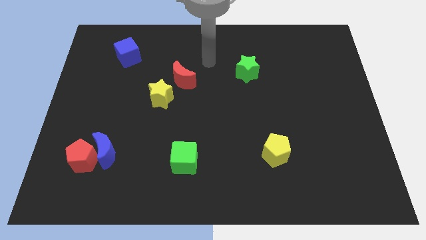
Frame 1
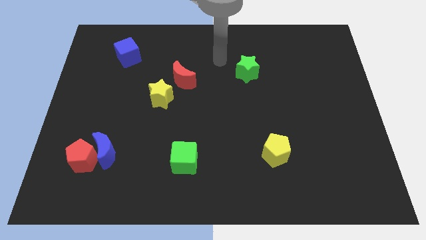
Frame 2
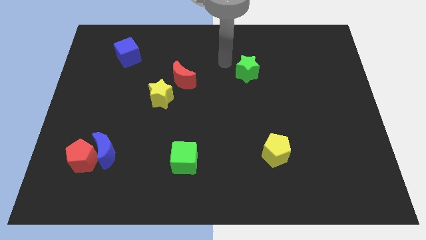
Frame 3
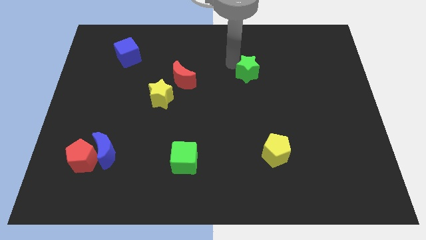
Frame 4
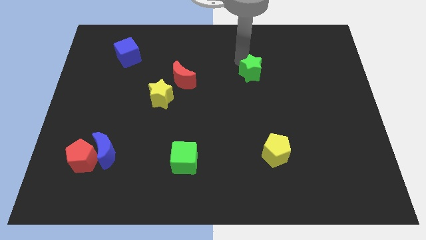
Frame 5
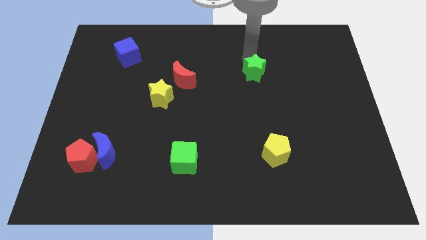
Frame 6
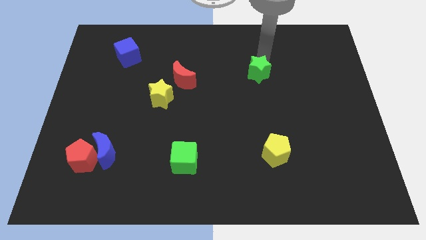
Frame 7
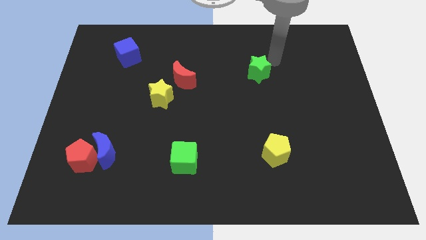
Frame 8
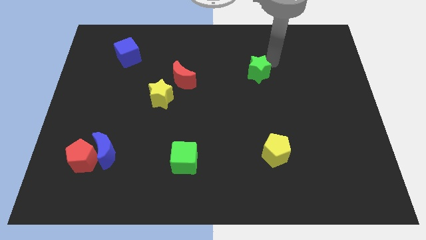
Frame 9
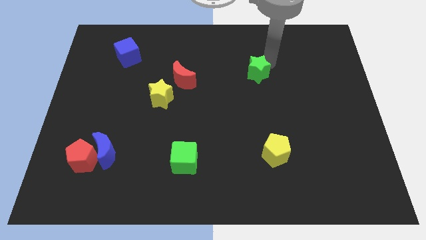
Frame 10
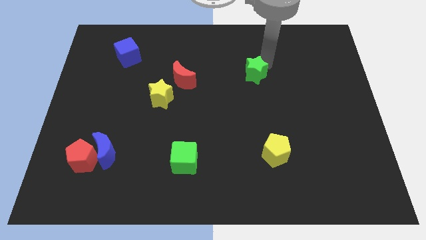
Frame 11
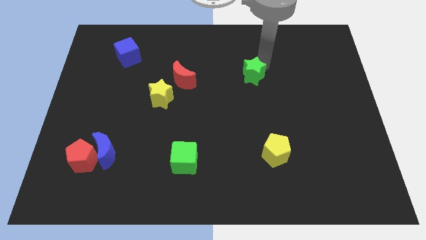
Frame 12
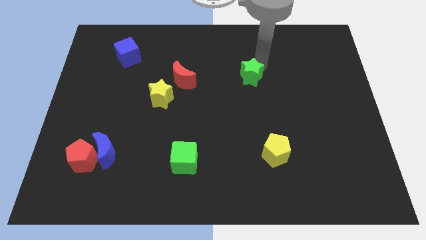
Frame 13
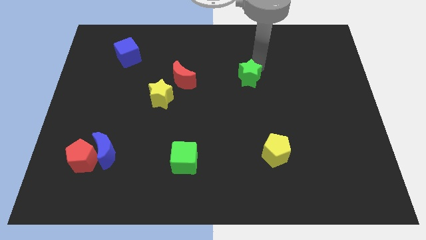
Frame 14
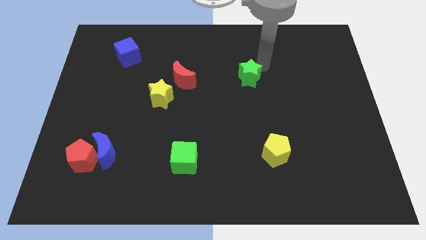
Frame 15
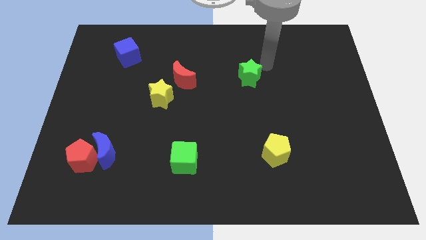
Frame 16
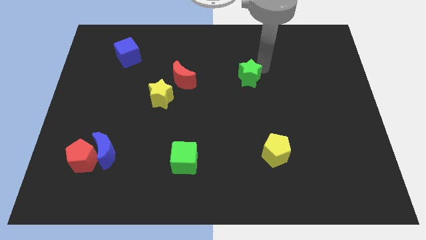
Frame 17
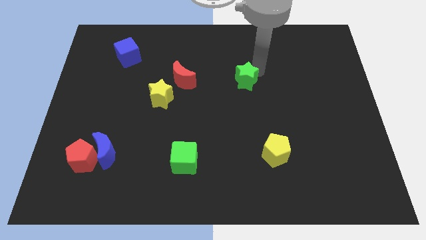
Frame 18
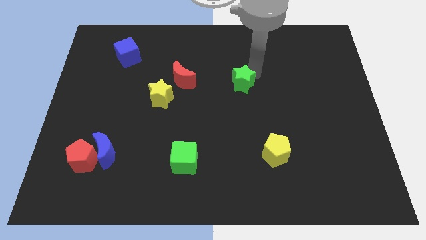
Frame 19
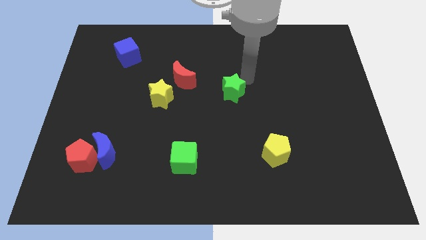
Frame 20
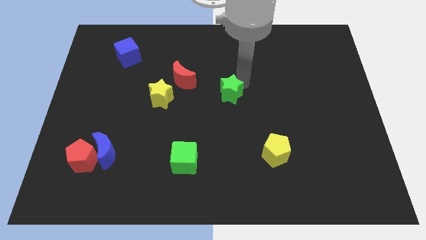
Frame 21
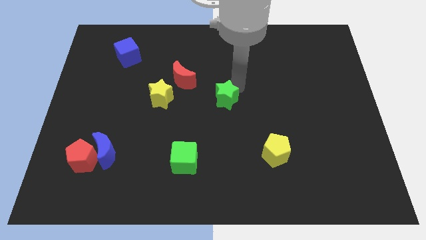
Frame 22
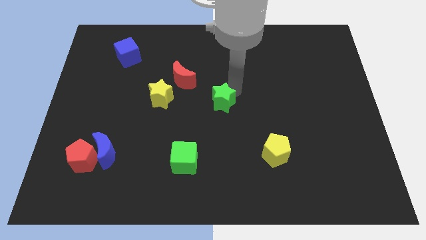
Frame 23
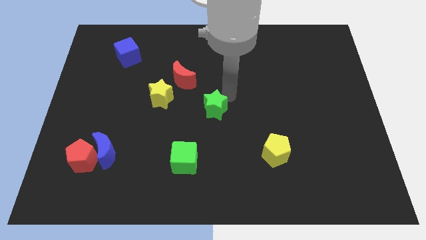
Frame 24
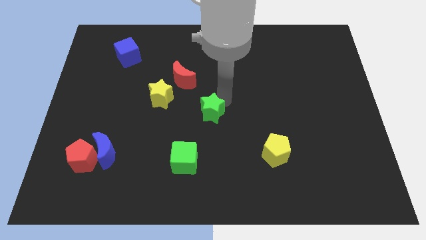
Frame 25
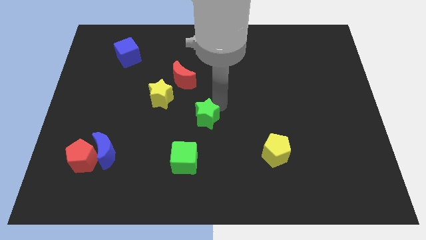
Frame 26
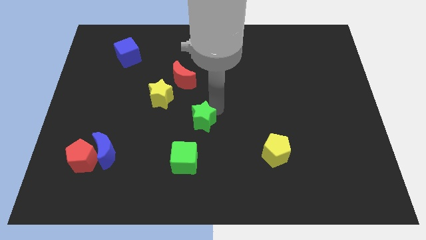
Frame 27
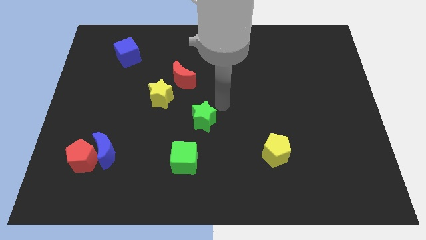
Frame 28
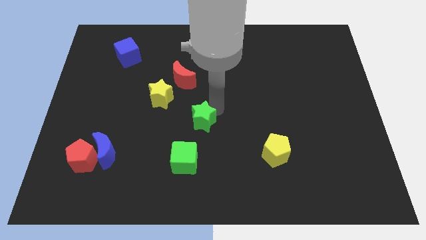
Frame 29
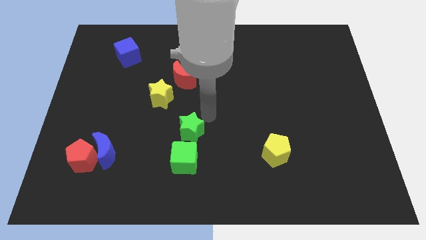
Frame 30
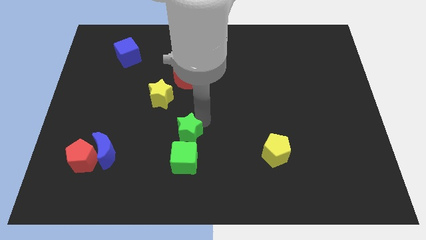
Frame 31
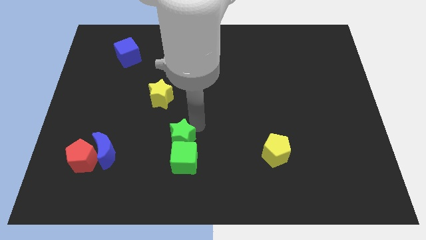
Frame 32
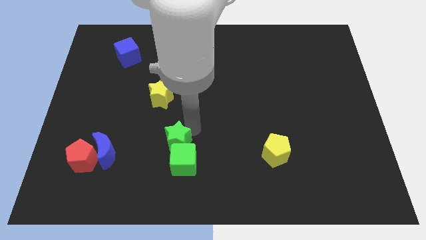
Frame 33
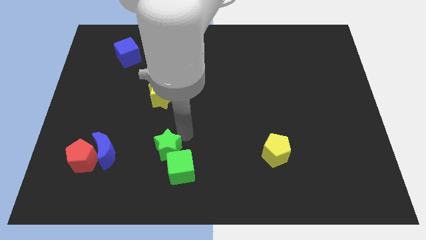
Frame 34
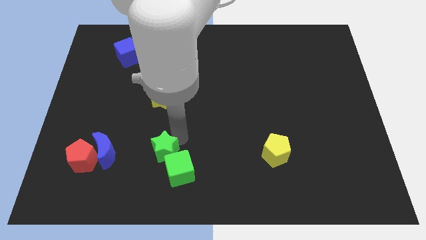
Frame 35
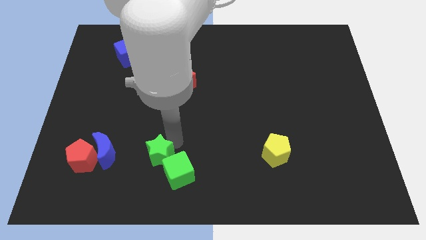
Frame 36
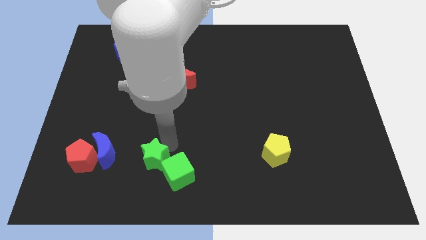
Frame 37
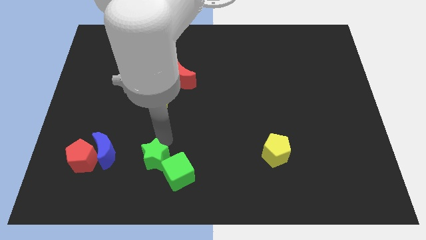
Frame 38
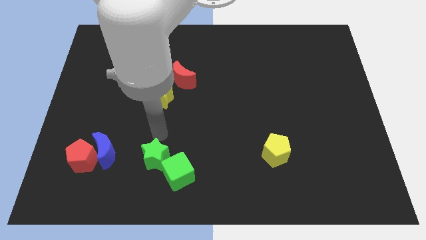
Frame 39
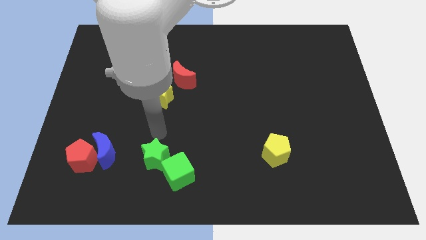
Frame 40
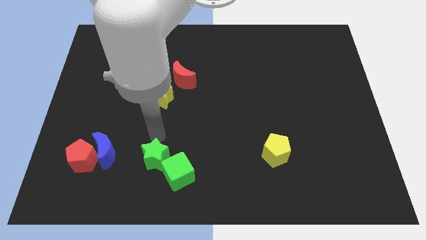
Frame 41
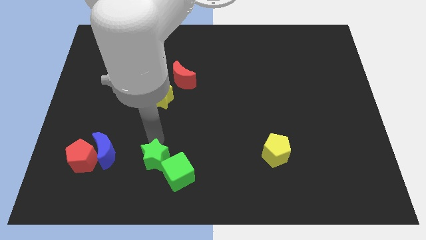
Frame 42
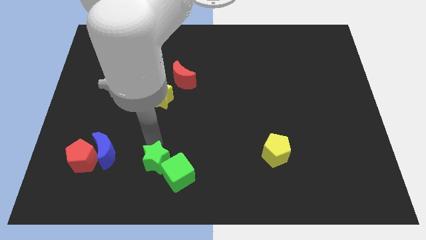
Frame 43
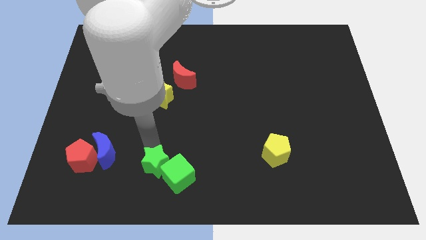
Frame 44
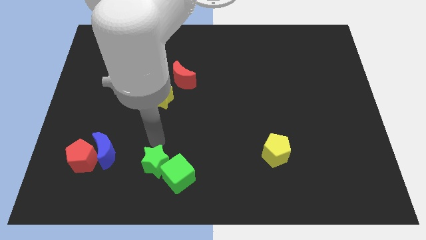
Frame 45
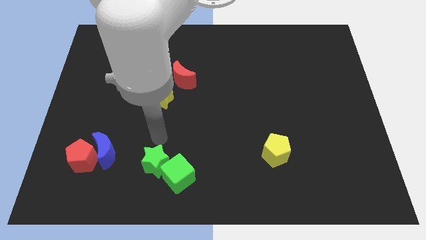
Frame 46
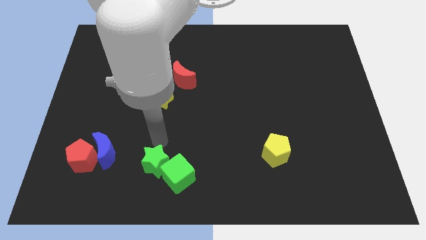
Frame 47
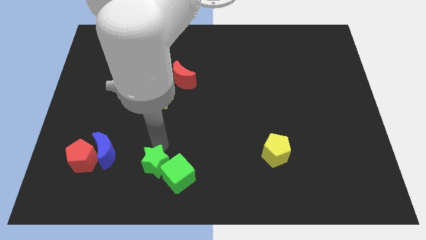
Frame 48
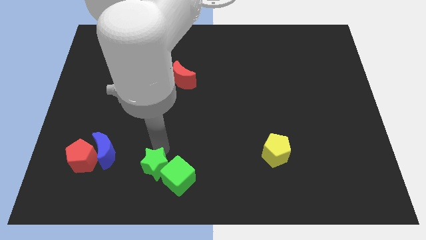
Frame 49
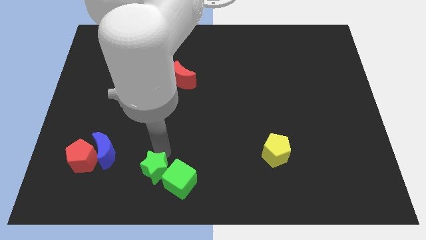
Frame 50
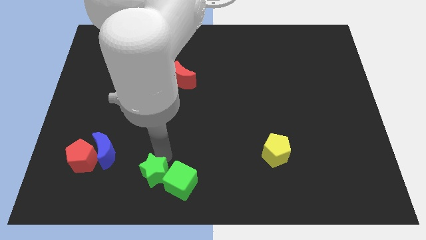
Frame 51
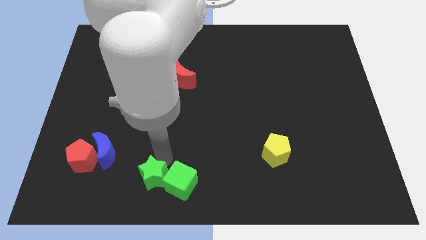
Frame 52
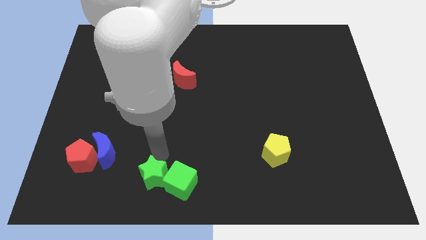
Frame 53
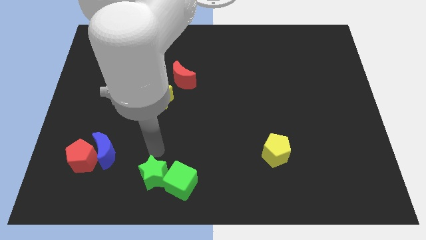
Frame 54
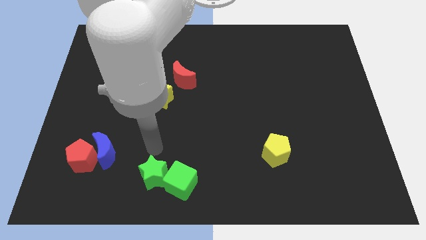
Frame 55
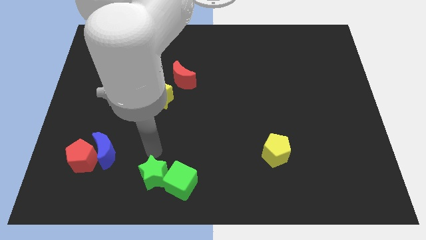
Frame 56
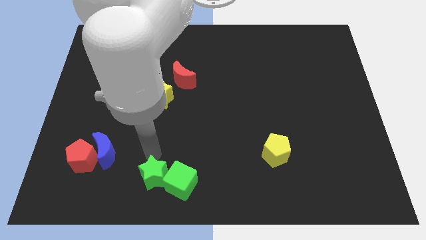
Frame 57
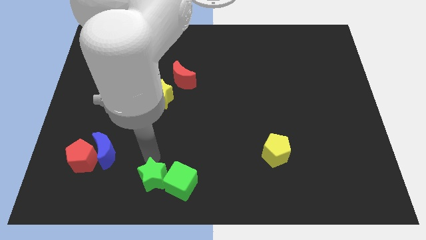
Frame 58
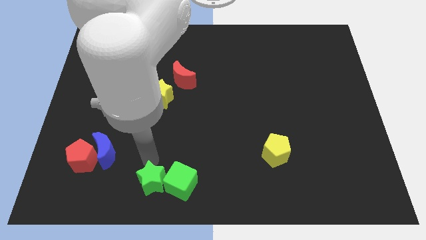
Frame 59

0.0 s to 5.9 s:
move the green star diagonally down and to the left of the green cube
